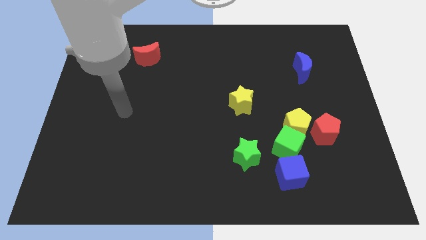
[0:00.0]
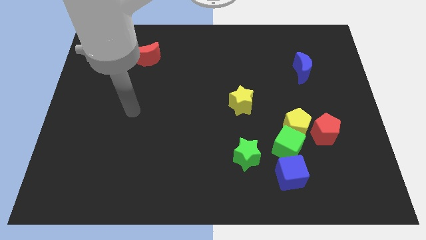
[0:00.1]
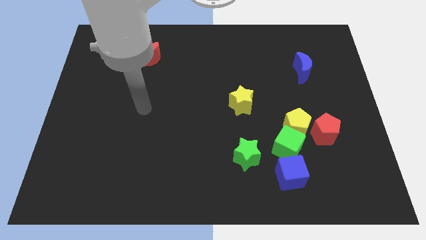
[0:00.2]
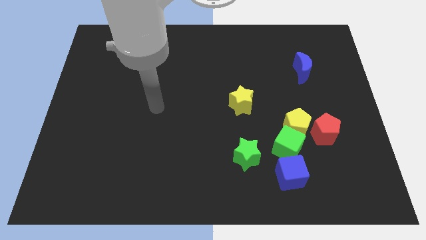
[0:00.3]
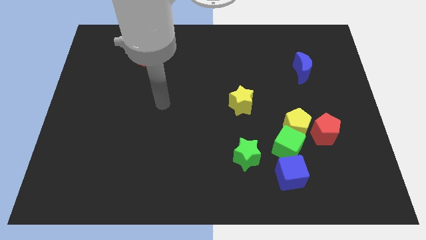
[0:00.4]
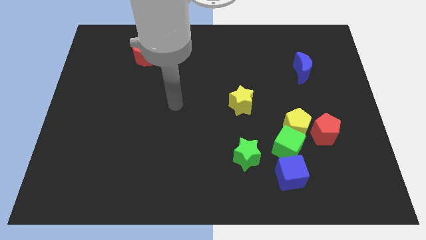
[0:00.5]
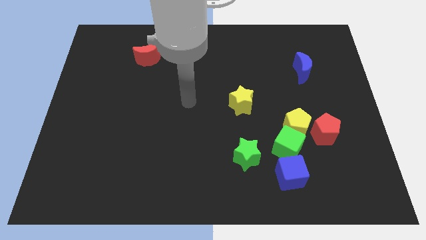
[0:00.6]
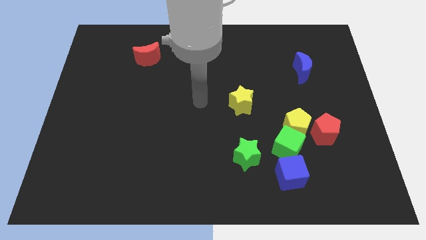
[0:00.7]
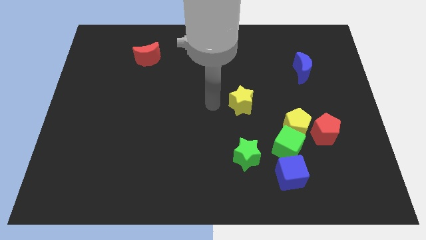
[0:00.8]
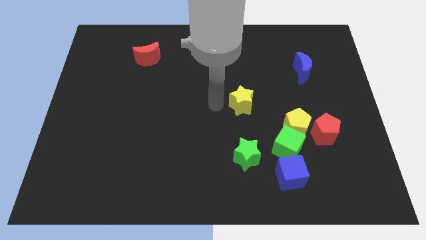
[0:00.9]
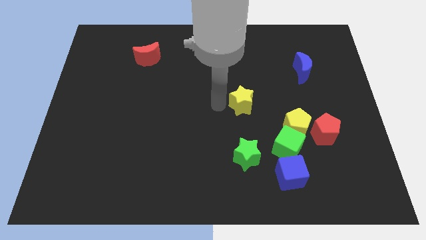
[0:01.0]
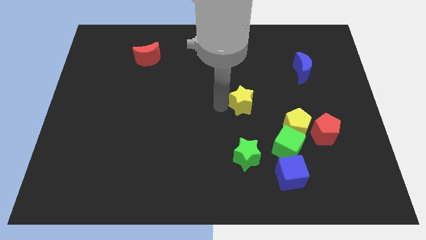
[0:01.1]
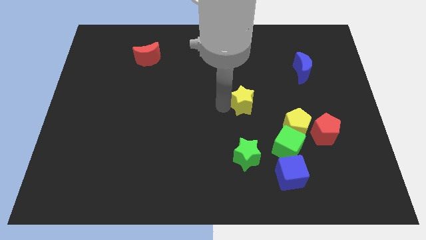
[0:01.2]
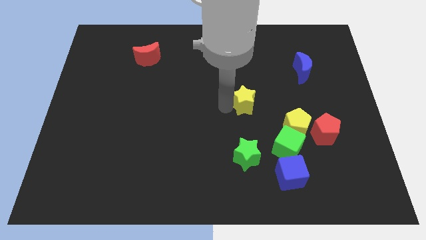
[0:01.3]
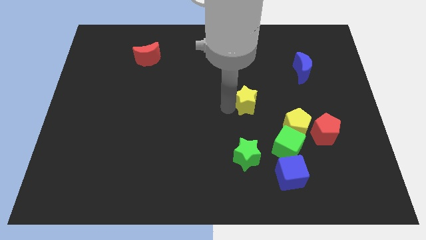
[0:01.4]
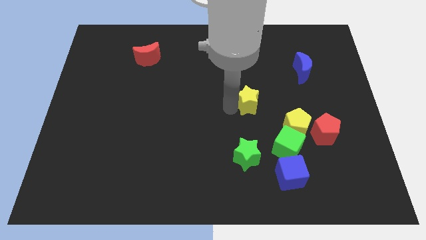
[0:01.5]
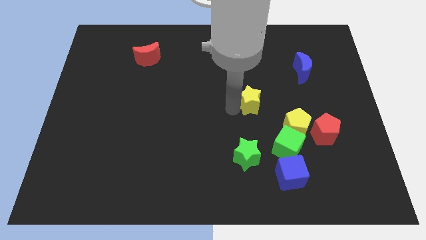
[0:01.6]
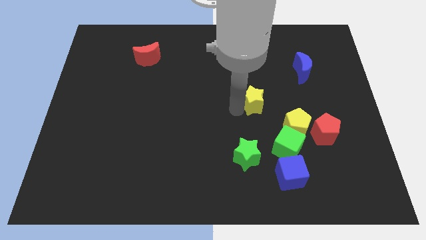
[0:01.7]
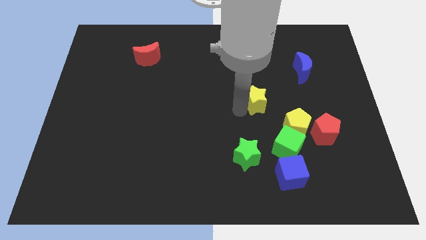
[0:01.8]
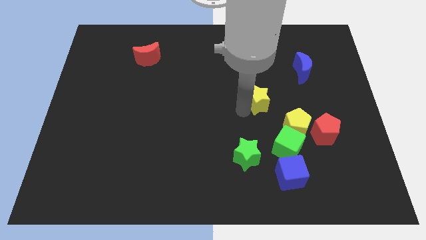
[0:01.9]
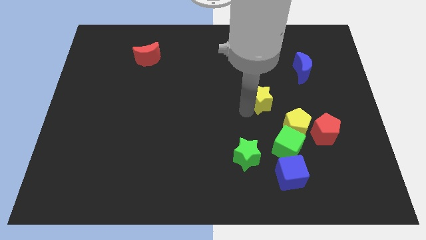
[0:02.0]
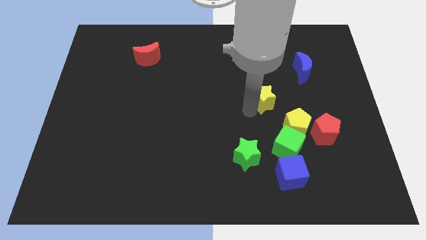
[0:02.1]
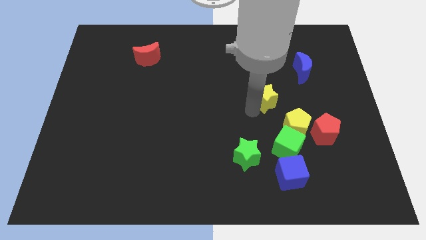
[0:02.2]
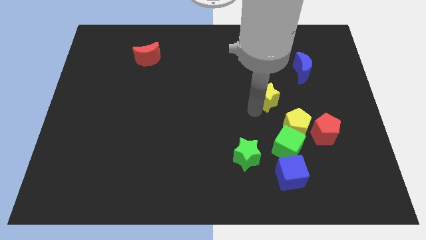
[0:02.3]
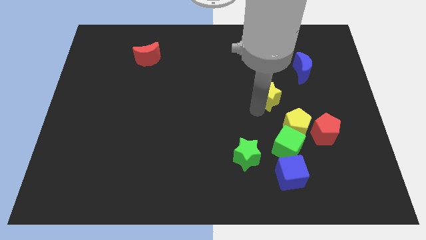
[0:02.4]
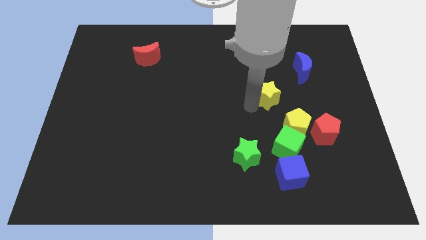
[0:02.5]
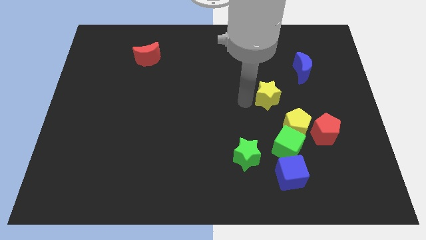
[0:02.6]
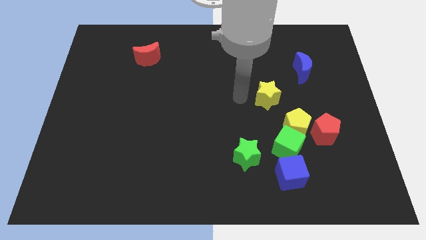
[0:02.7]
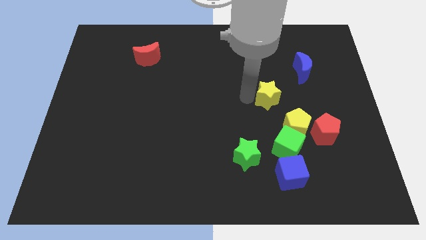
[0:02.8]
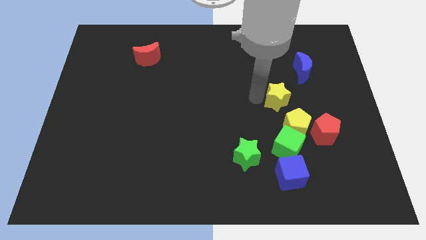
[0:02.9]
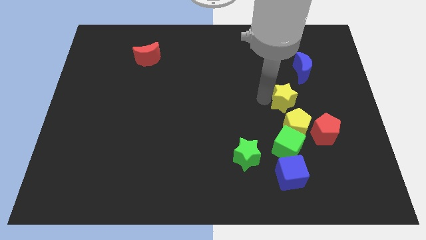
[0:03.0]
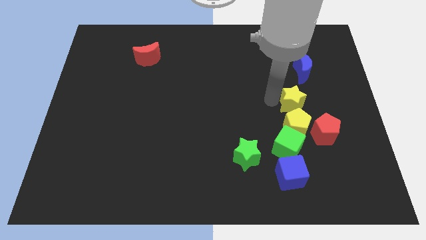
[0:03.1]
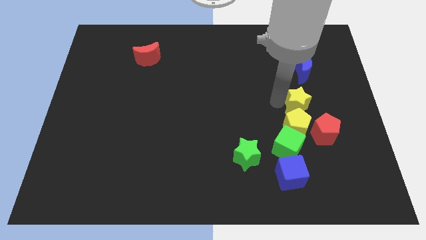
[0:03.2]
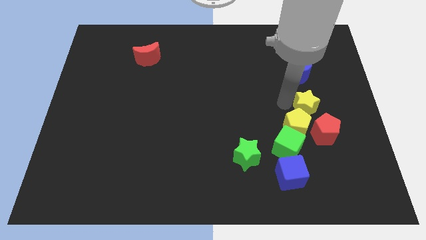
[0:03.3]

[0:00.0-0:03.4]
push the yellow star downwards and right diagonally a little bit

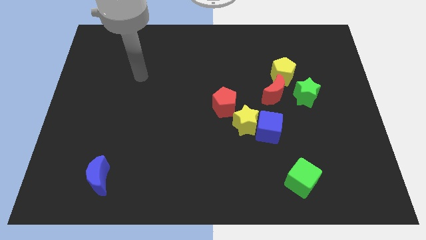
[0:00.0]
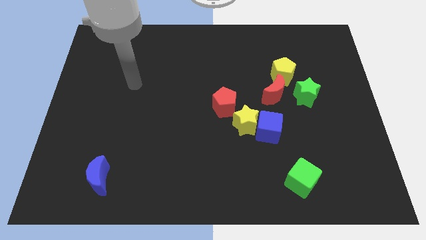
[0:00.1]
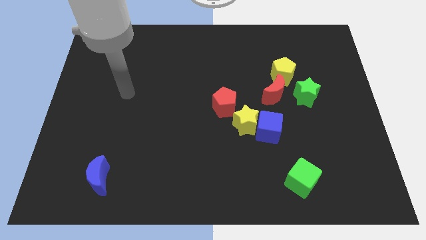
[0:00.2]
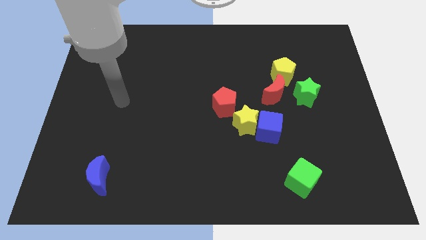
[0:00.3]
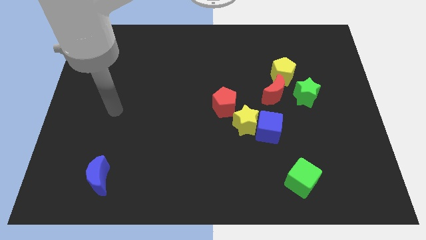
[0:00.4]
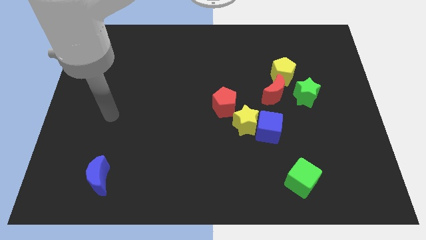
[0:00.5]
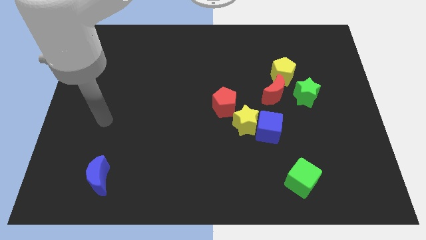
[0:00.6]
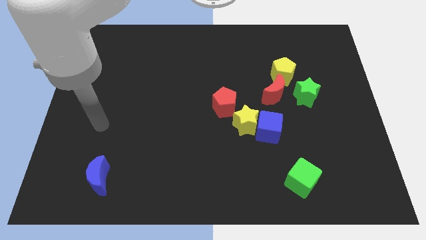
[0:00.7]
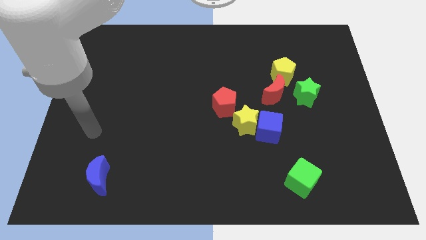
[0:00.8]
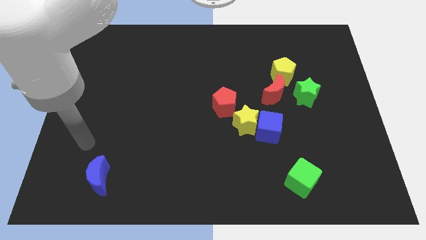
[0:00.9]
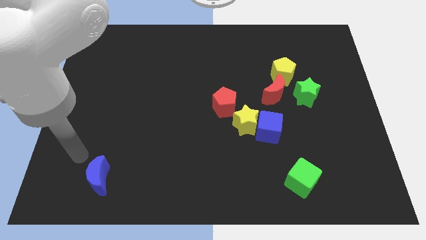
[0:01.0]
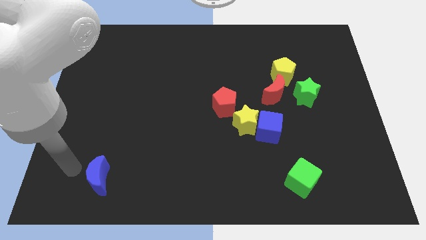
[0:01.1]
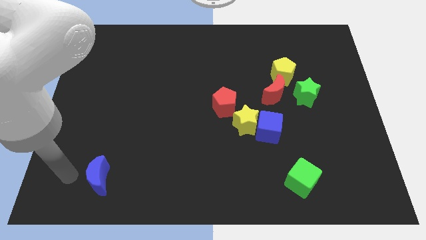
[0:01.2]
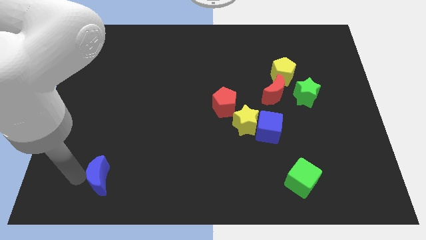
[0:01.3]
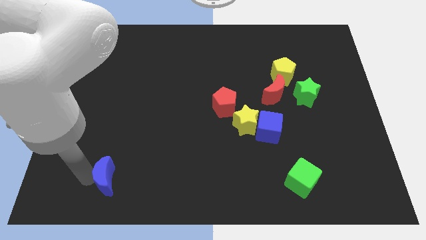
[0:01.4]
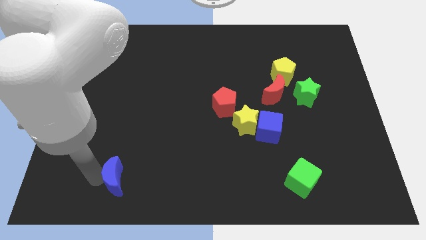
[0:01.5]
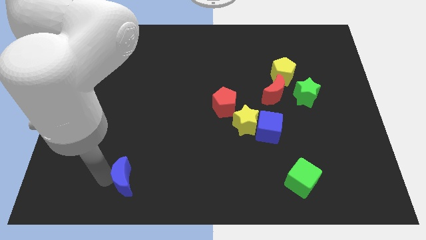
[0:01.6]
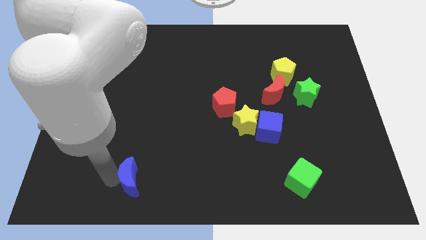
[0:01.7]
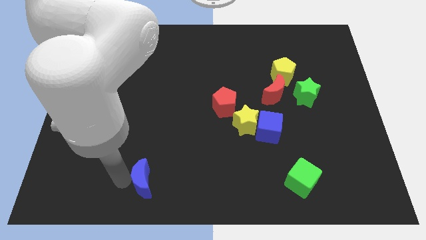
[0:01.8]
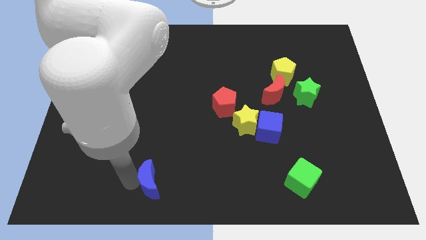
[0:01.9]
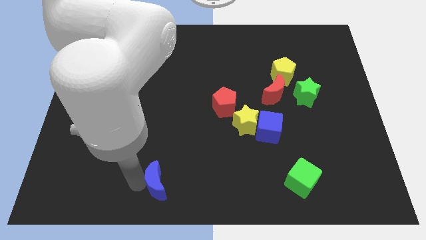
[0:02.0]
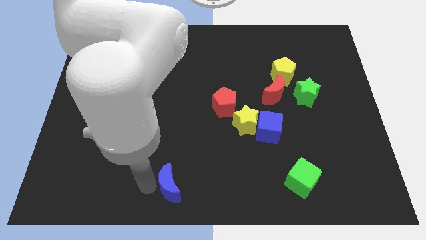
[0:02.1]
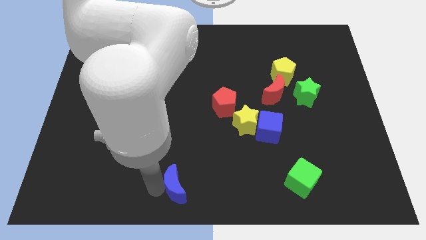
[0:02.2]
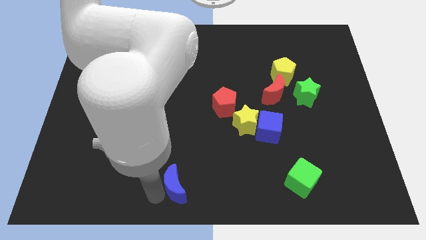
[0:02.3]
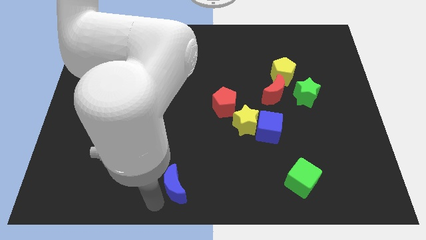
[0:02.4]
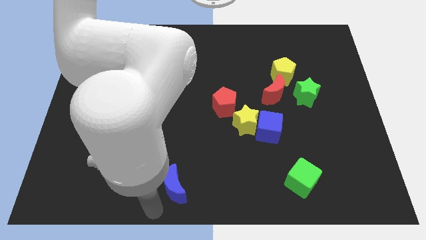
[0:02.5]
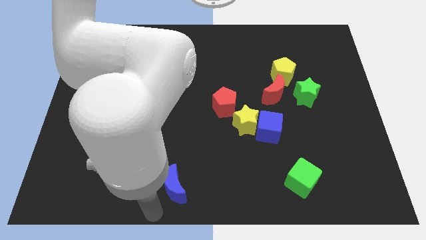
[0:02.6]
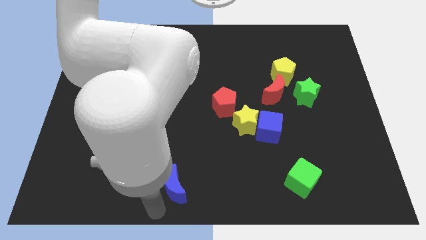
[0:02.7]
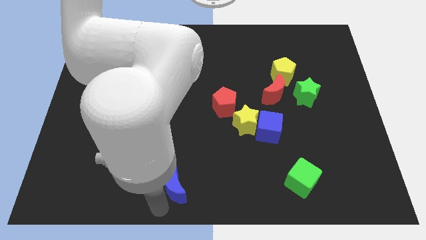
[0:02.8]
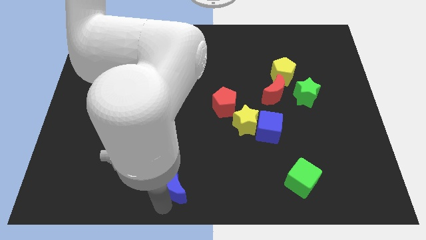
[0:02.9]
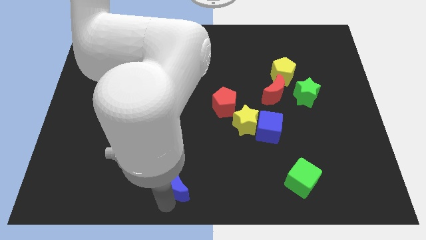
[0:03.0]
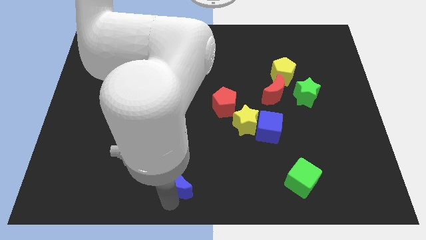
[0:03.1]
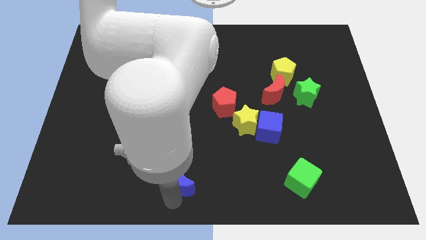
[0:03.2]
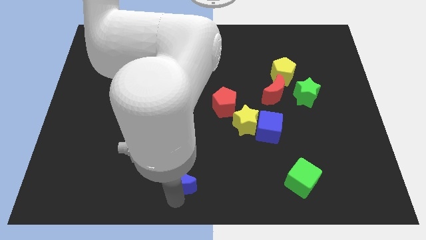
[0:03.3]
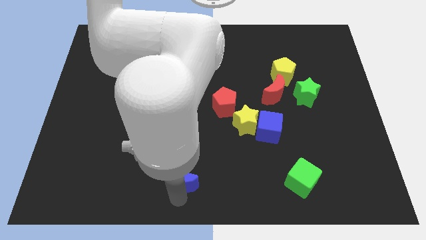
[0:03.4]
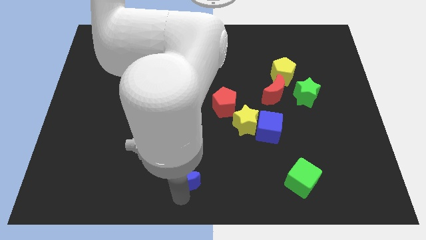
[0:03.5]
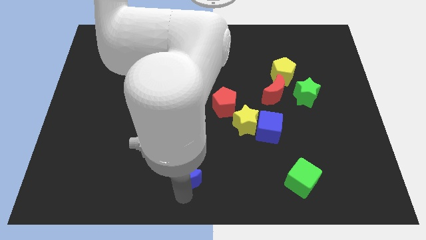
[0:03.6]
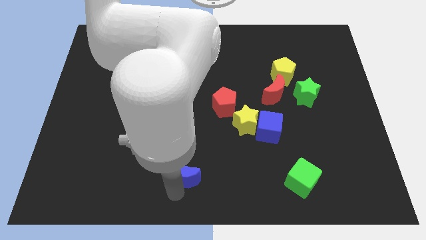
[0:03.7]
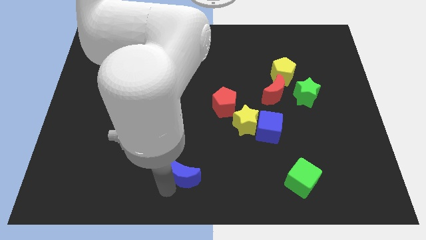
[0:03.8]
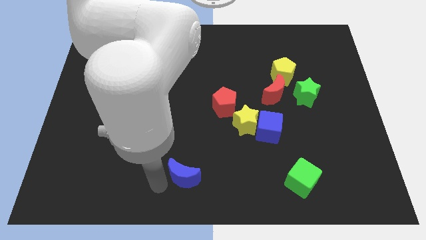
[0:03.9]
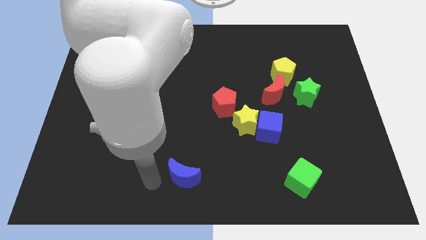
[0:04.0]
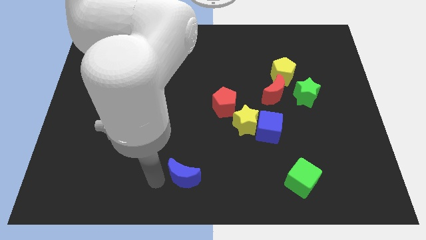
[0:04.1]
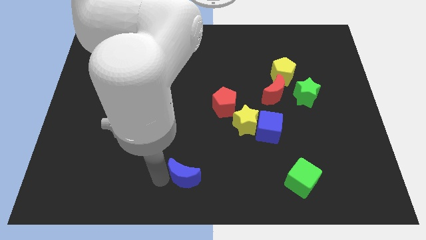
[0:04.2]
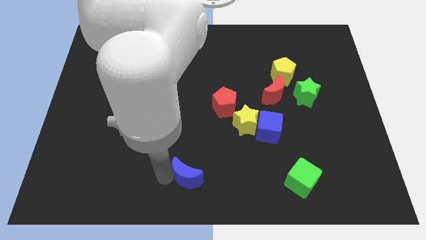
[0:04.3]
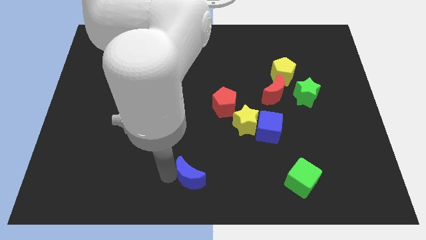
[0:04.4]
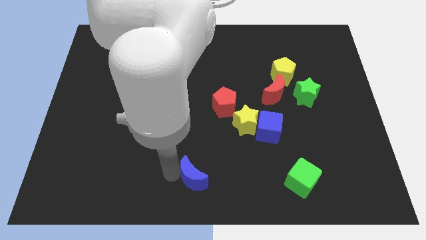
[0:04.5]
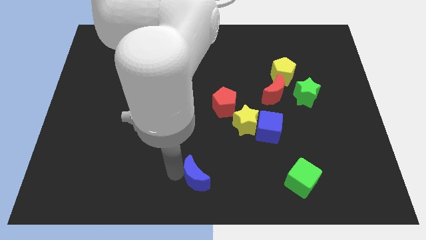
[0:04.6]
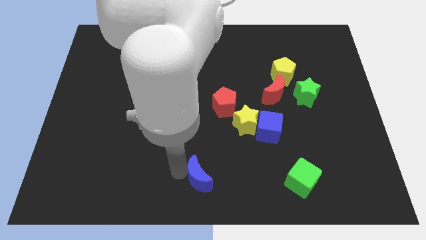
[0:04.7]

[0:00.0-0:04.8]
slide the blue moon to the right
